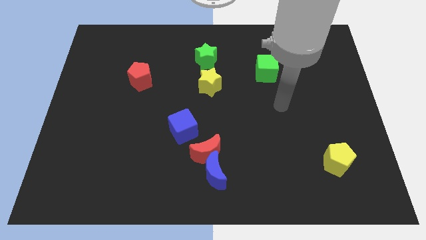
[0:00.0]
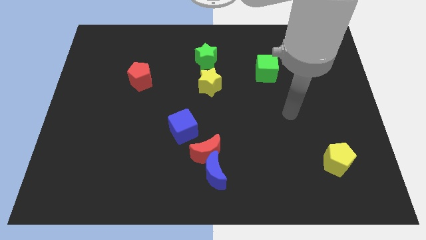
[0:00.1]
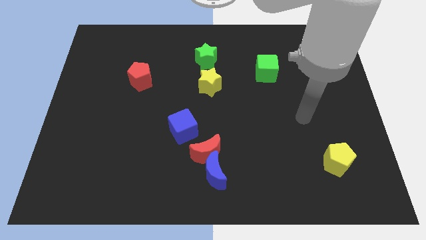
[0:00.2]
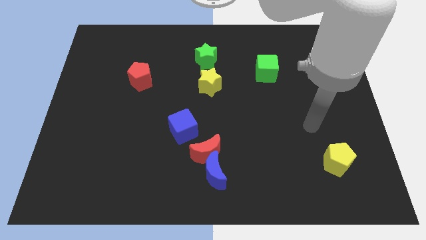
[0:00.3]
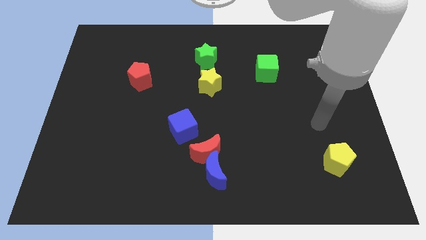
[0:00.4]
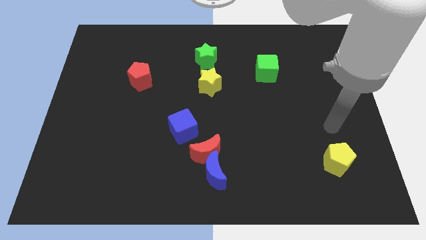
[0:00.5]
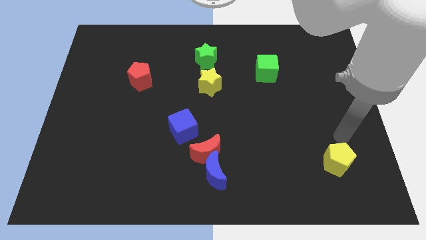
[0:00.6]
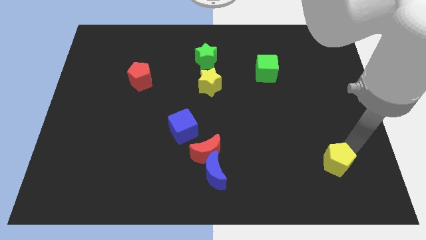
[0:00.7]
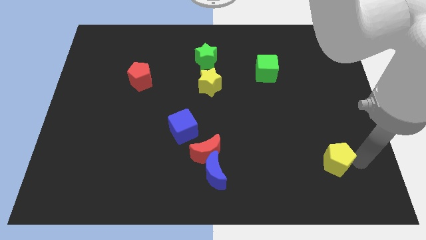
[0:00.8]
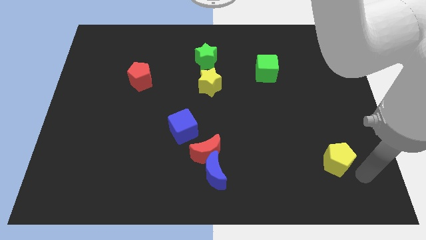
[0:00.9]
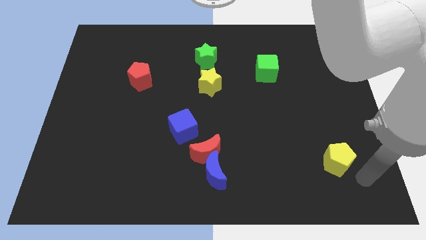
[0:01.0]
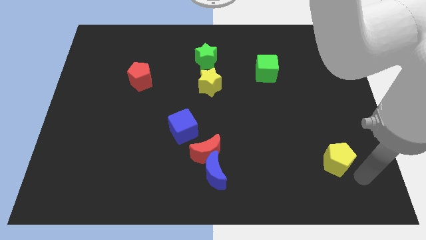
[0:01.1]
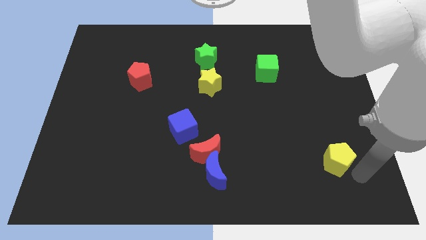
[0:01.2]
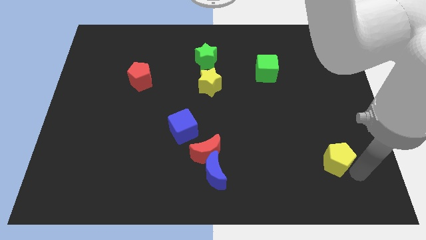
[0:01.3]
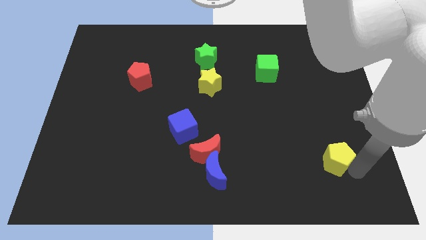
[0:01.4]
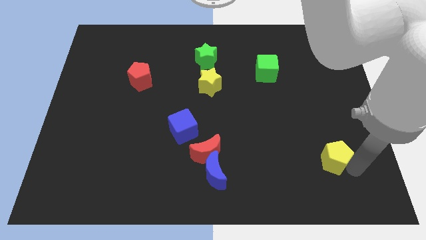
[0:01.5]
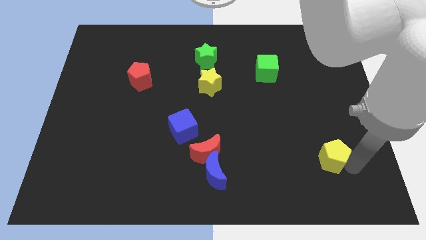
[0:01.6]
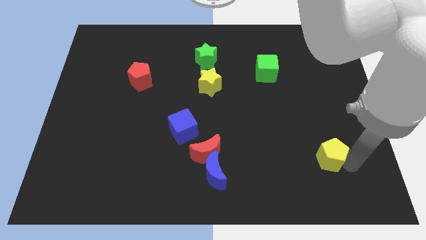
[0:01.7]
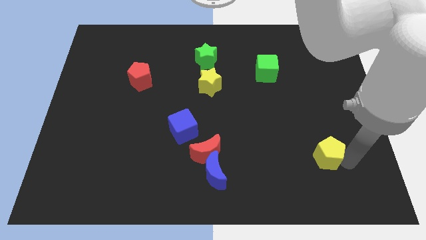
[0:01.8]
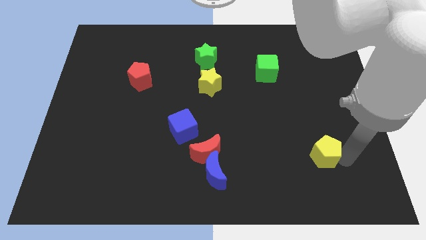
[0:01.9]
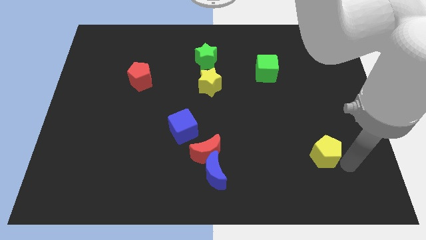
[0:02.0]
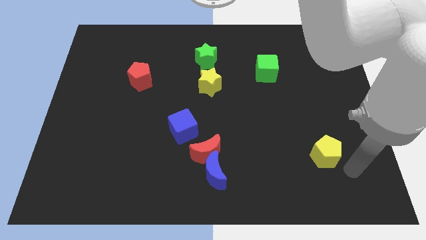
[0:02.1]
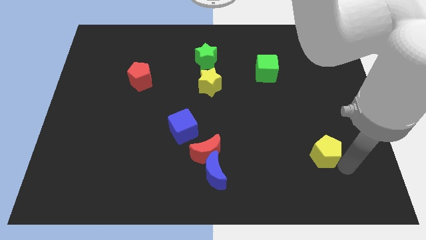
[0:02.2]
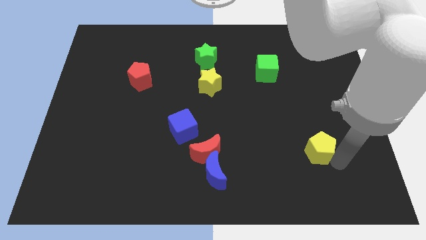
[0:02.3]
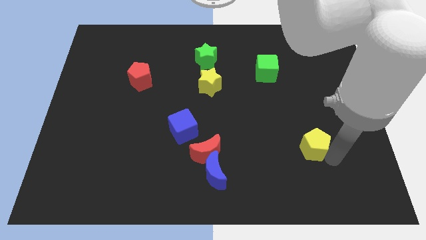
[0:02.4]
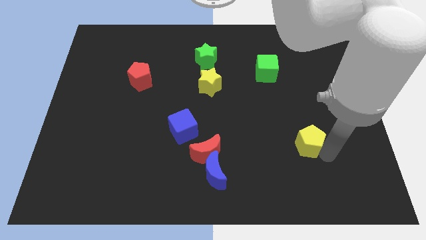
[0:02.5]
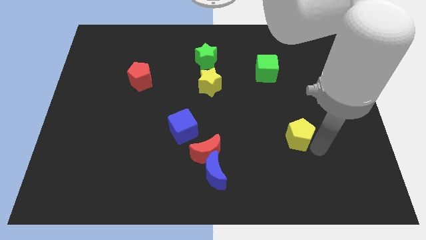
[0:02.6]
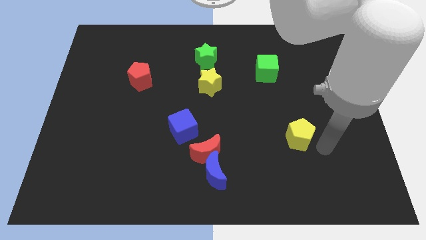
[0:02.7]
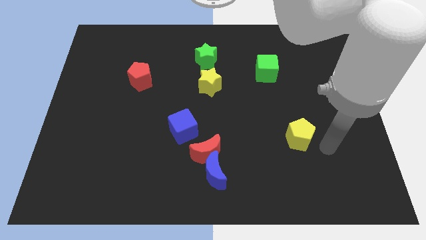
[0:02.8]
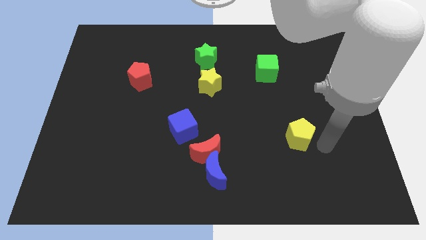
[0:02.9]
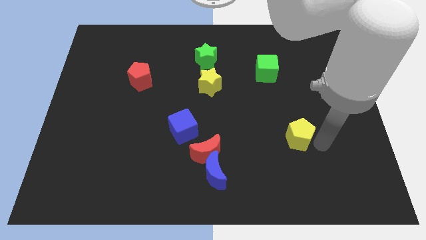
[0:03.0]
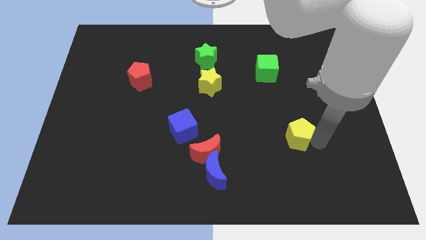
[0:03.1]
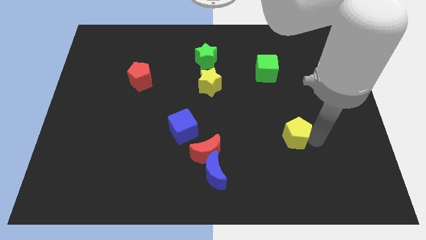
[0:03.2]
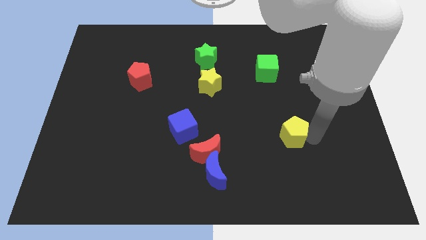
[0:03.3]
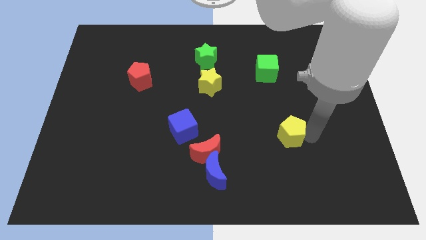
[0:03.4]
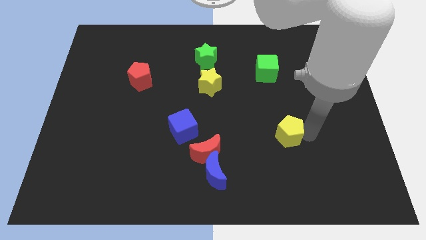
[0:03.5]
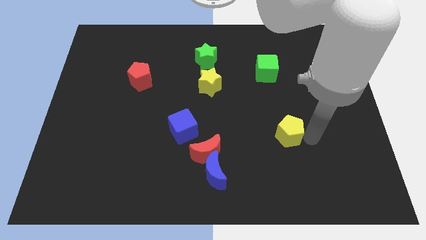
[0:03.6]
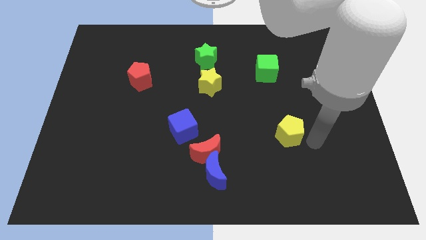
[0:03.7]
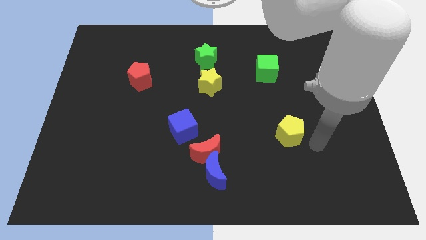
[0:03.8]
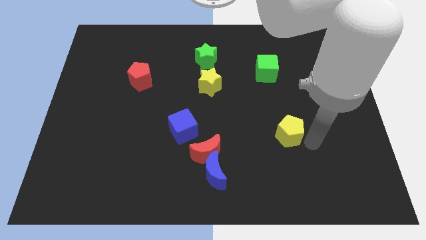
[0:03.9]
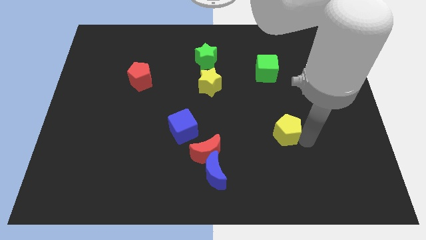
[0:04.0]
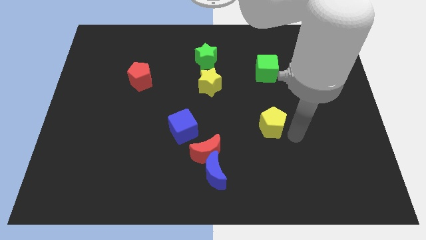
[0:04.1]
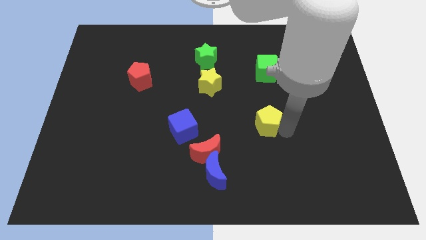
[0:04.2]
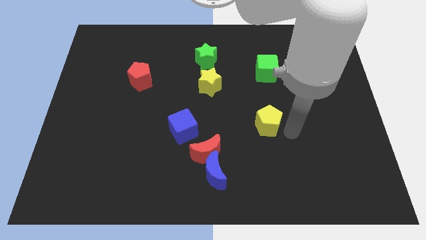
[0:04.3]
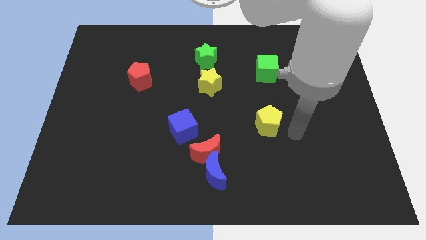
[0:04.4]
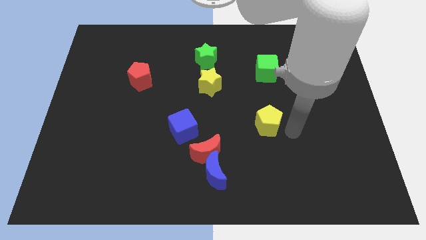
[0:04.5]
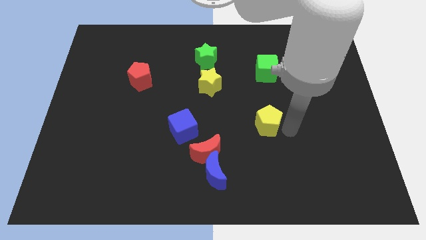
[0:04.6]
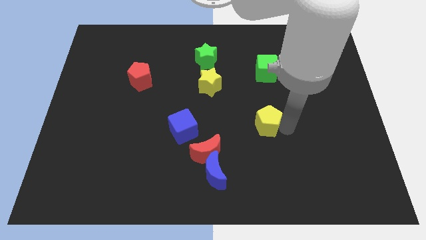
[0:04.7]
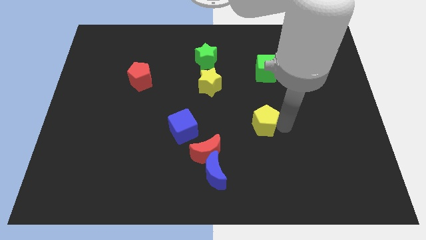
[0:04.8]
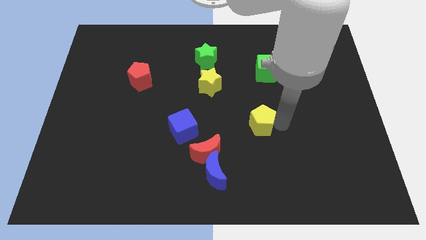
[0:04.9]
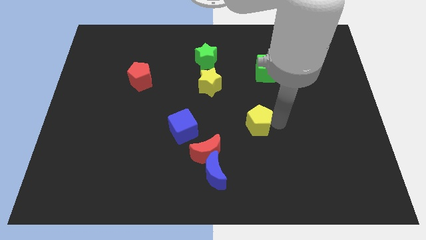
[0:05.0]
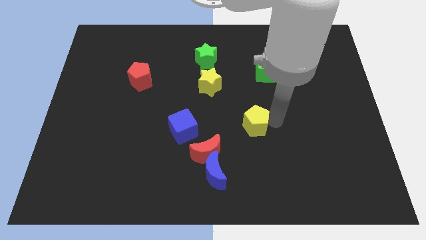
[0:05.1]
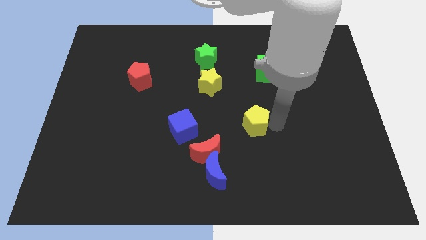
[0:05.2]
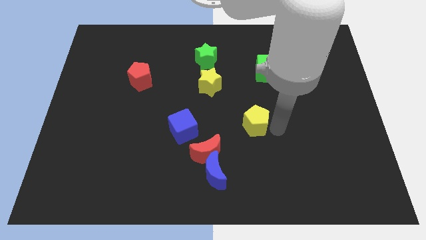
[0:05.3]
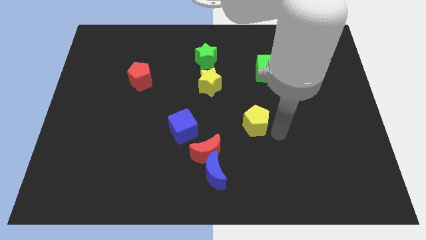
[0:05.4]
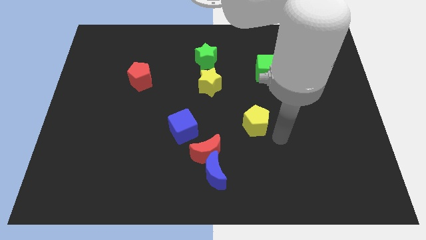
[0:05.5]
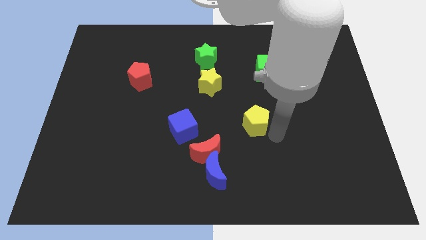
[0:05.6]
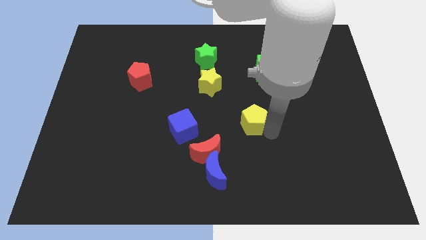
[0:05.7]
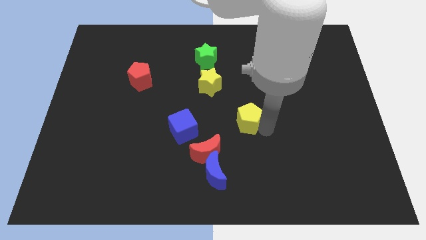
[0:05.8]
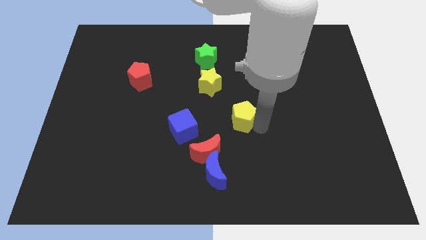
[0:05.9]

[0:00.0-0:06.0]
move the yellow pentagon up and left

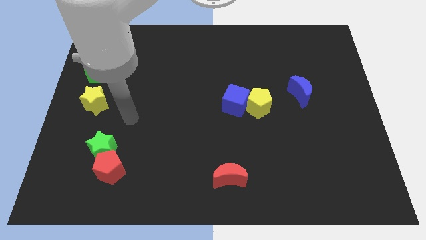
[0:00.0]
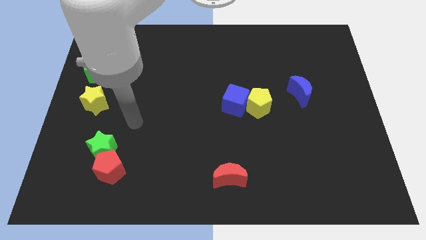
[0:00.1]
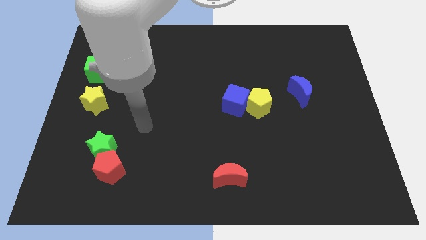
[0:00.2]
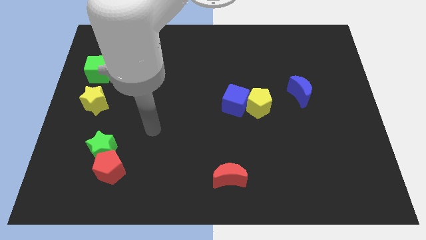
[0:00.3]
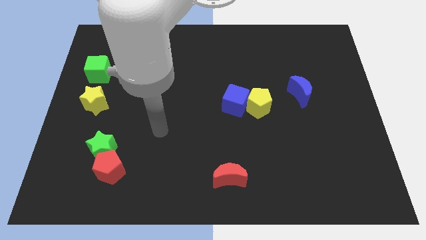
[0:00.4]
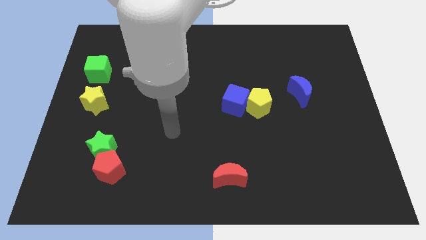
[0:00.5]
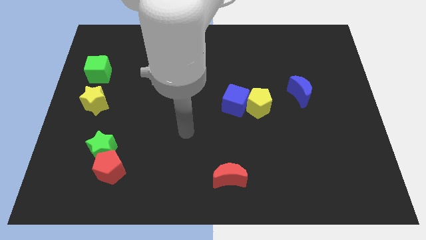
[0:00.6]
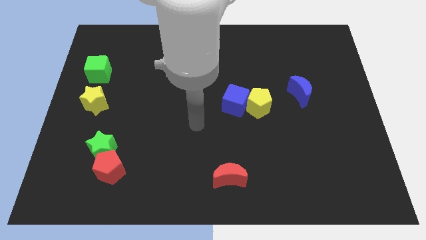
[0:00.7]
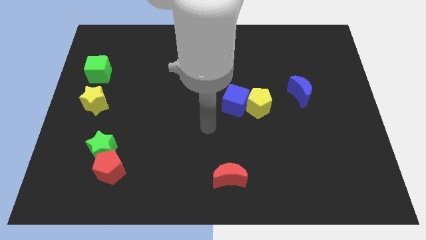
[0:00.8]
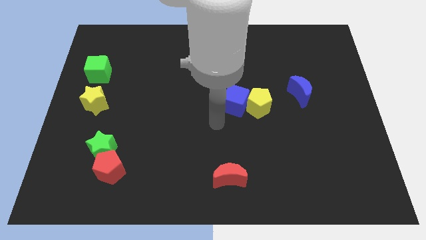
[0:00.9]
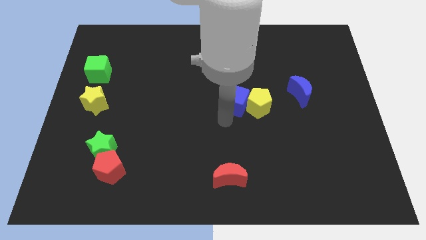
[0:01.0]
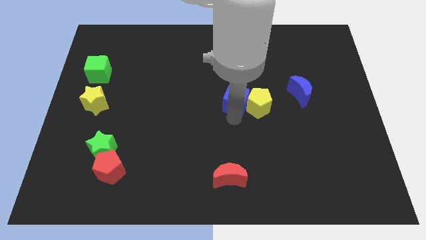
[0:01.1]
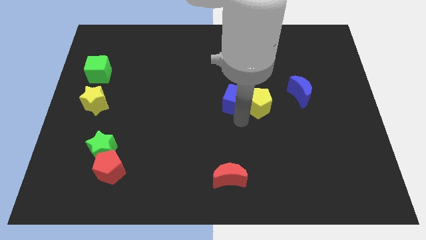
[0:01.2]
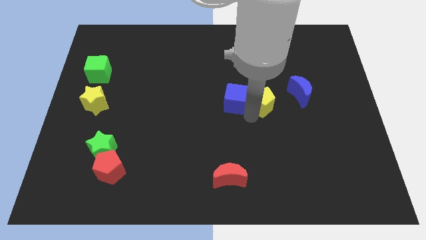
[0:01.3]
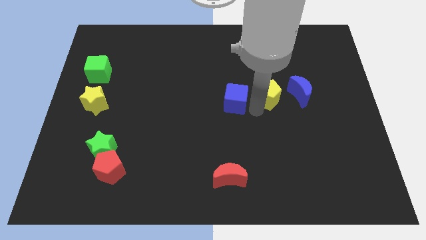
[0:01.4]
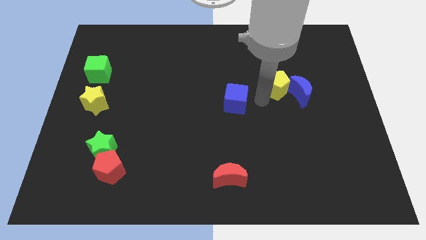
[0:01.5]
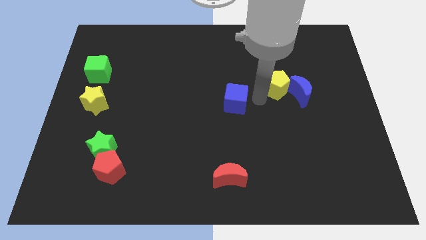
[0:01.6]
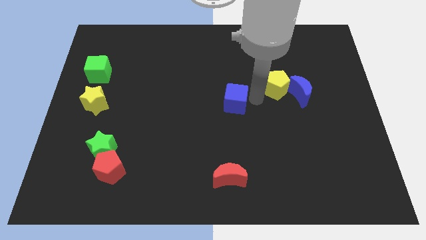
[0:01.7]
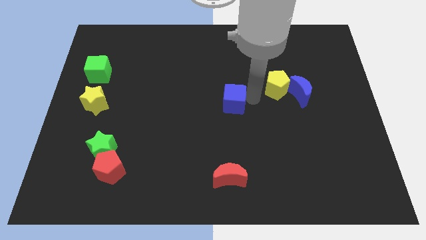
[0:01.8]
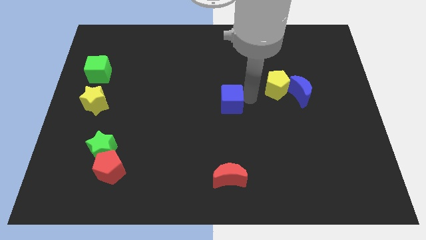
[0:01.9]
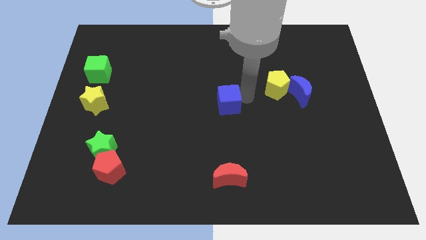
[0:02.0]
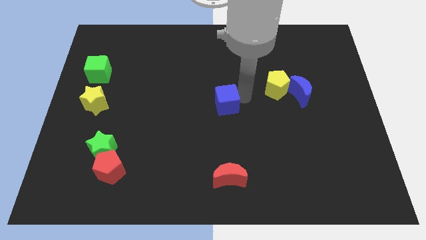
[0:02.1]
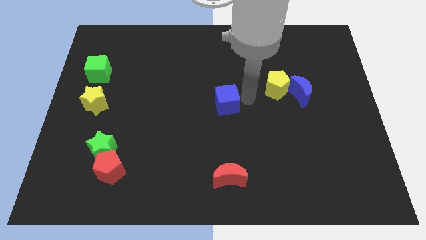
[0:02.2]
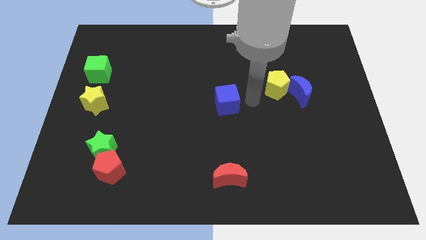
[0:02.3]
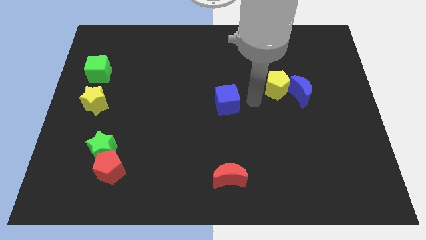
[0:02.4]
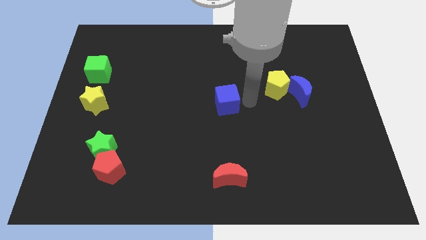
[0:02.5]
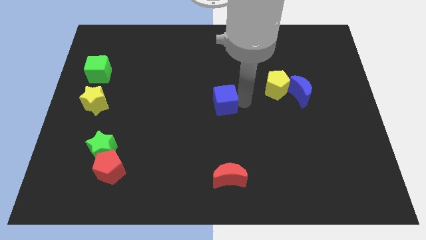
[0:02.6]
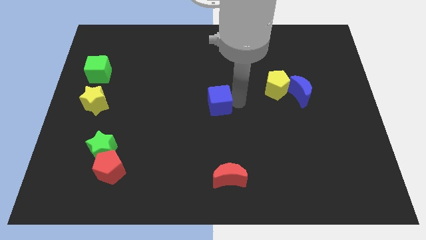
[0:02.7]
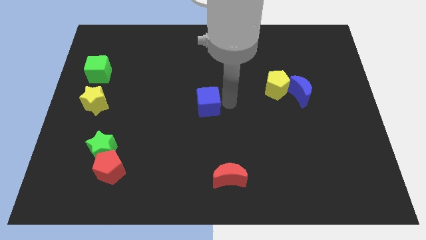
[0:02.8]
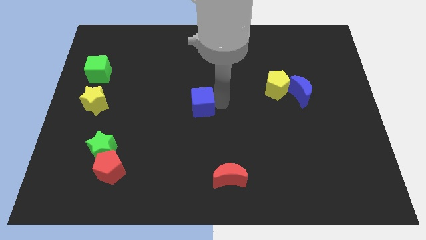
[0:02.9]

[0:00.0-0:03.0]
move the blue cube somewhat left
